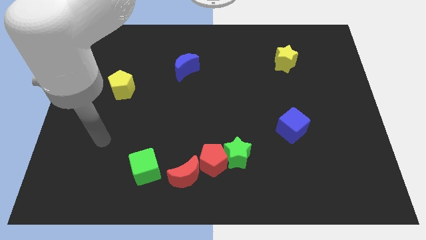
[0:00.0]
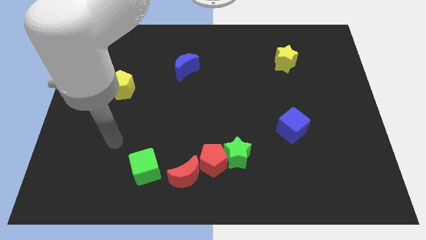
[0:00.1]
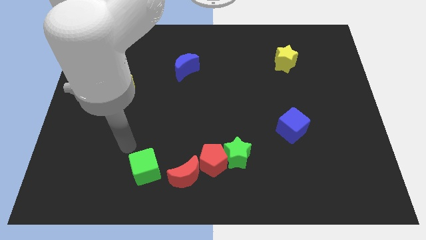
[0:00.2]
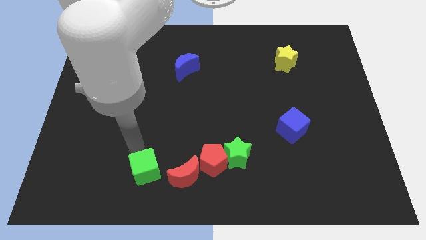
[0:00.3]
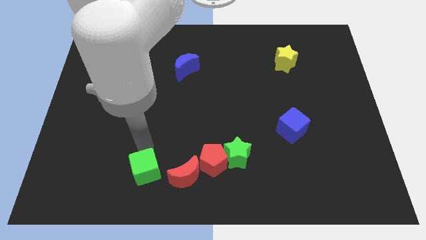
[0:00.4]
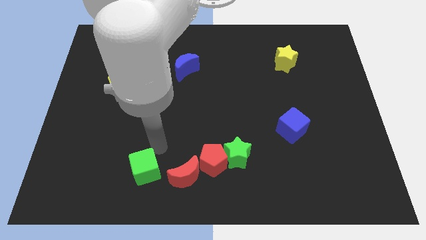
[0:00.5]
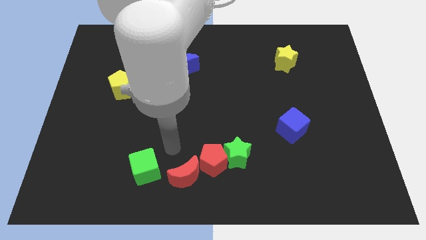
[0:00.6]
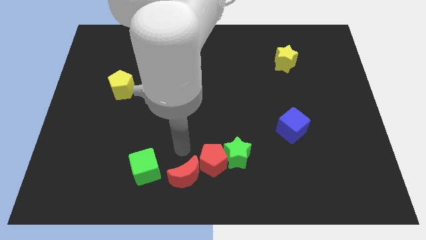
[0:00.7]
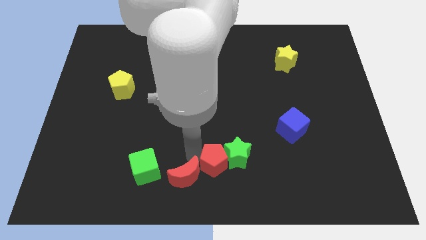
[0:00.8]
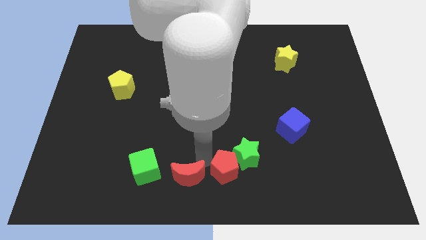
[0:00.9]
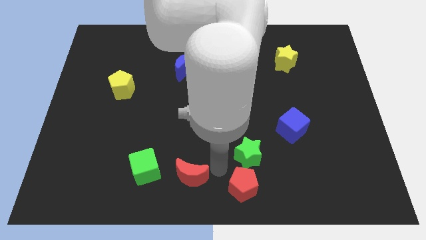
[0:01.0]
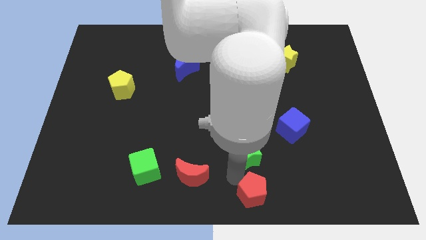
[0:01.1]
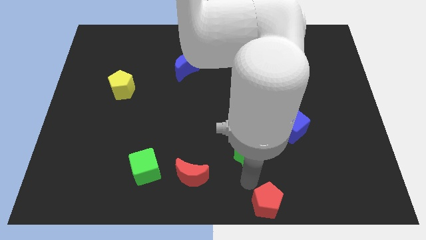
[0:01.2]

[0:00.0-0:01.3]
move the green star away from the red pentagon

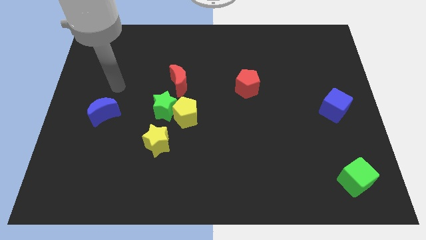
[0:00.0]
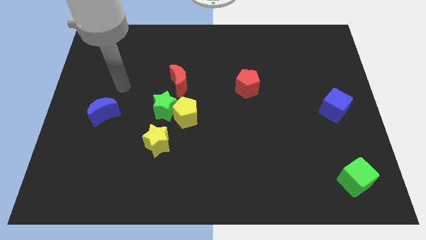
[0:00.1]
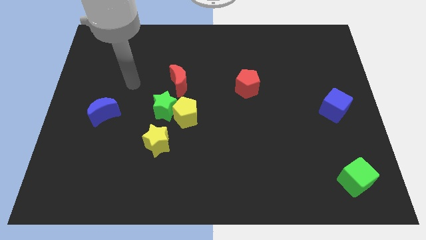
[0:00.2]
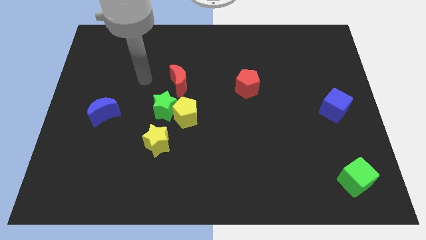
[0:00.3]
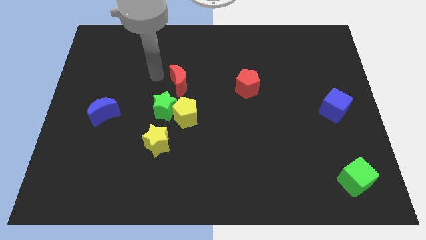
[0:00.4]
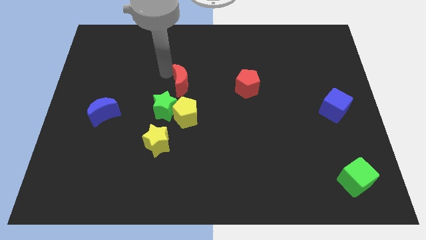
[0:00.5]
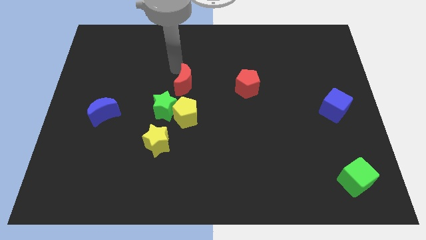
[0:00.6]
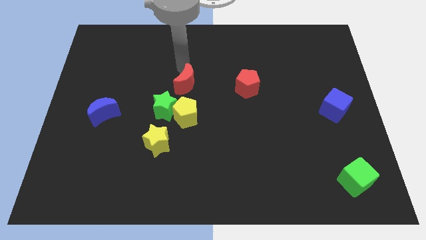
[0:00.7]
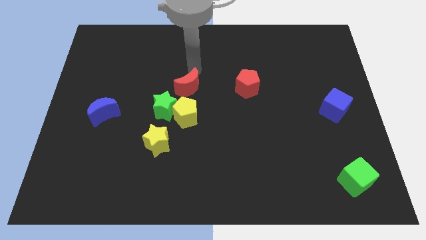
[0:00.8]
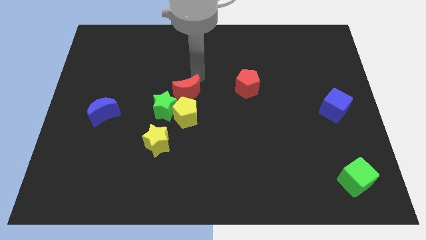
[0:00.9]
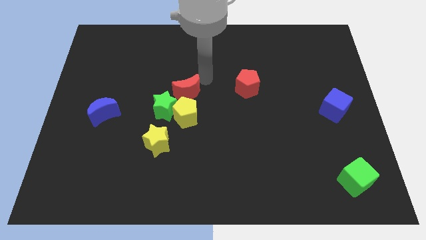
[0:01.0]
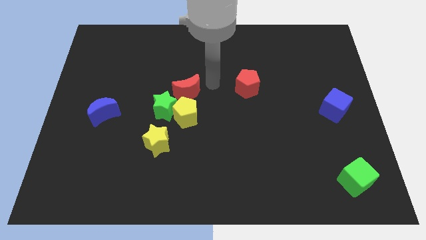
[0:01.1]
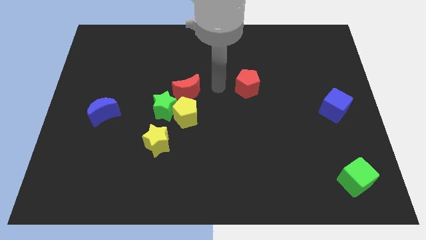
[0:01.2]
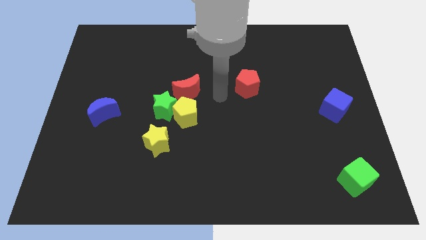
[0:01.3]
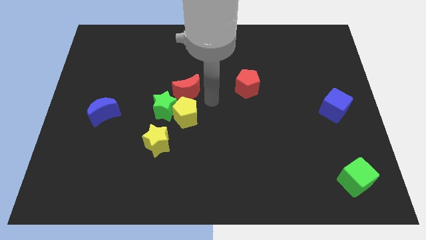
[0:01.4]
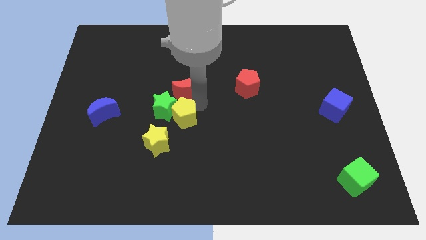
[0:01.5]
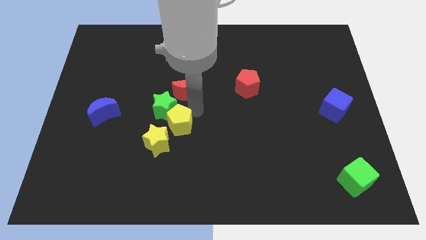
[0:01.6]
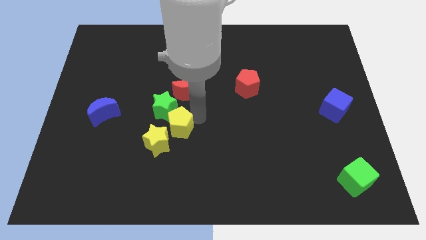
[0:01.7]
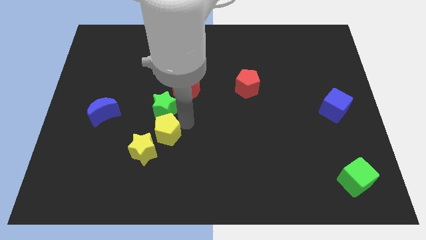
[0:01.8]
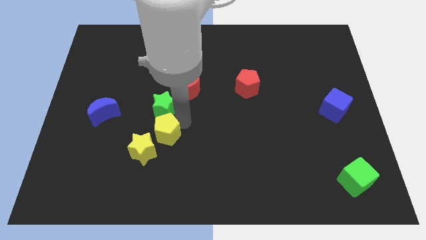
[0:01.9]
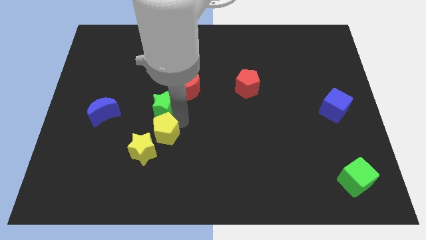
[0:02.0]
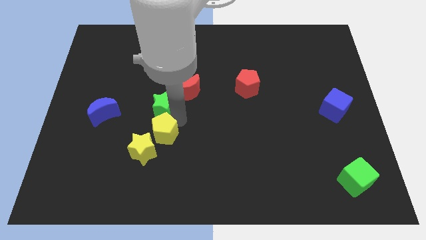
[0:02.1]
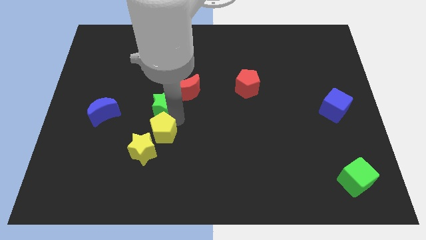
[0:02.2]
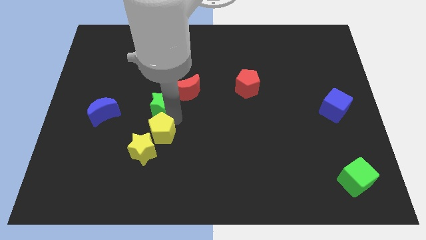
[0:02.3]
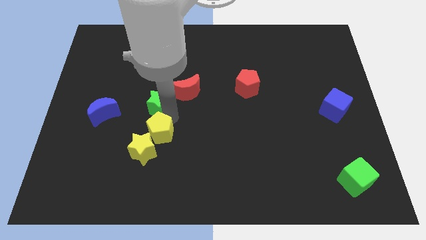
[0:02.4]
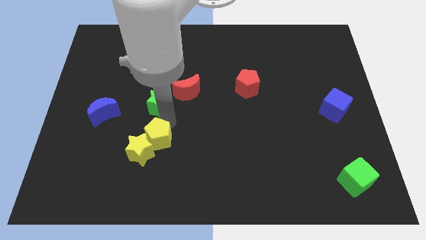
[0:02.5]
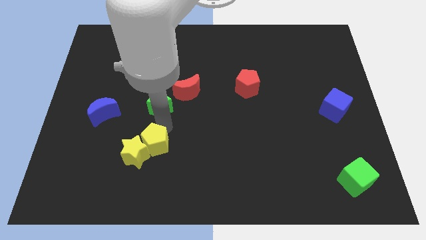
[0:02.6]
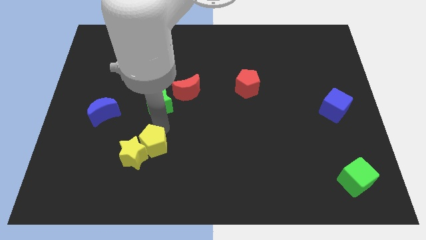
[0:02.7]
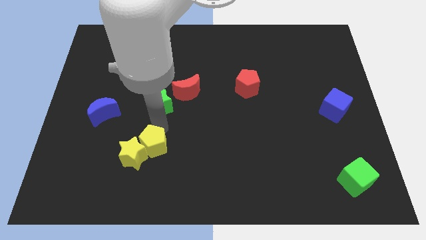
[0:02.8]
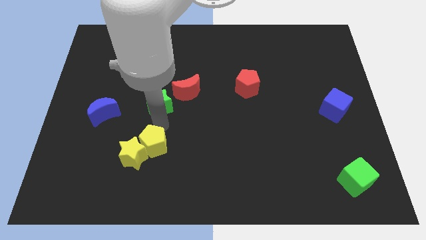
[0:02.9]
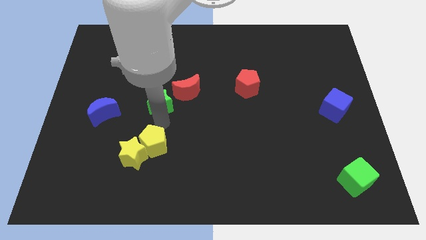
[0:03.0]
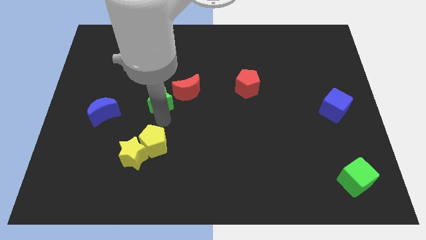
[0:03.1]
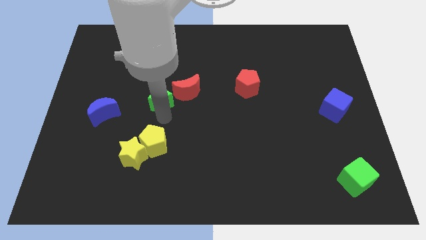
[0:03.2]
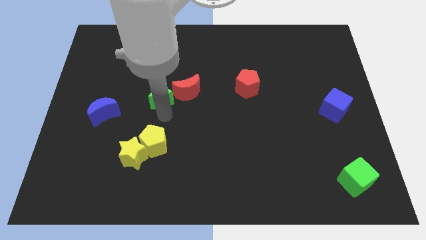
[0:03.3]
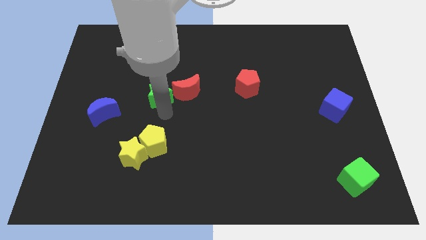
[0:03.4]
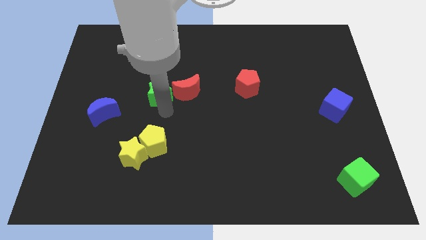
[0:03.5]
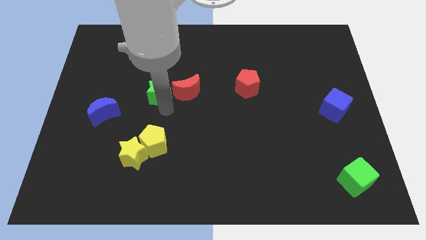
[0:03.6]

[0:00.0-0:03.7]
move the green star away from the yellow pentagon, red moon, and yellow star

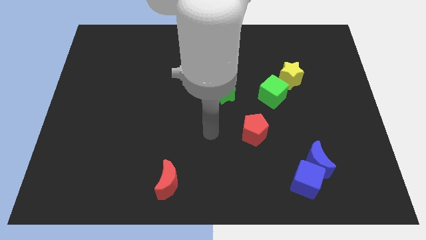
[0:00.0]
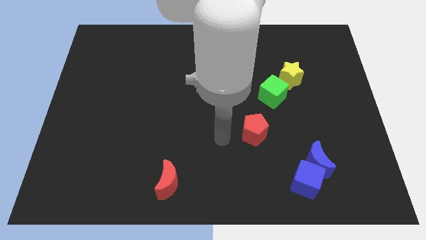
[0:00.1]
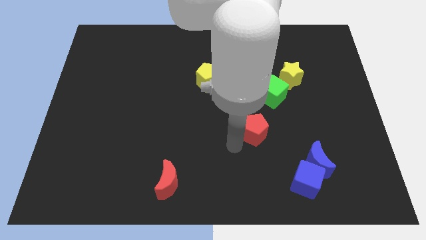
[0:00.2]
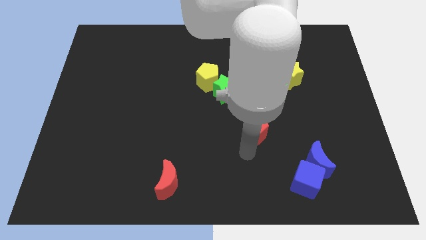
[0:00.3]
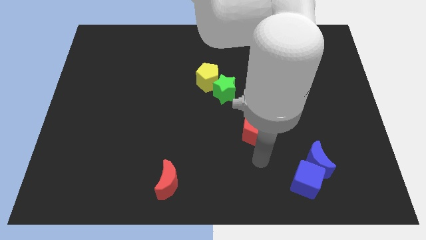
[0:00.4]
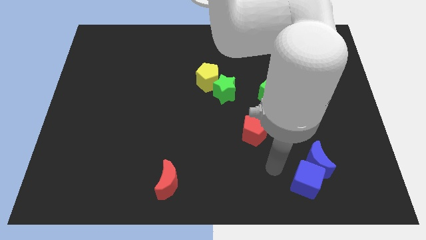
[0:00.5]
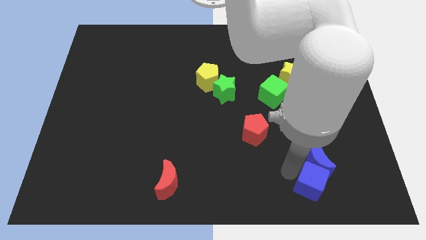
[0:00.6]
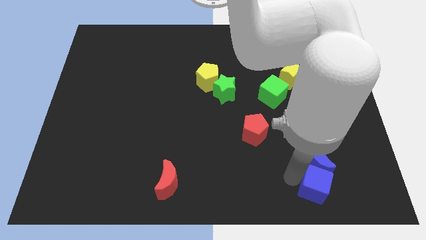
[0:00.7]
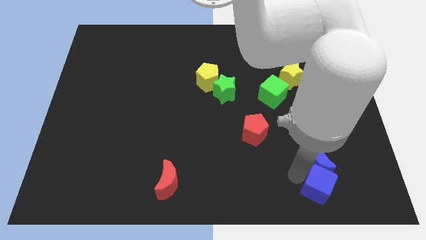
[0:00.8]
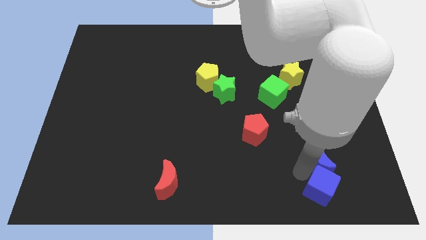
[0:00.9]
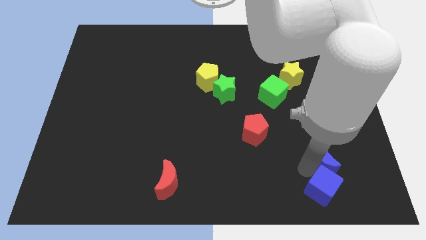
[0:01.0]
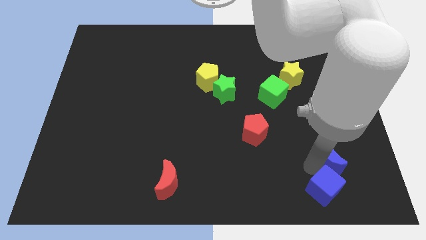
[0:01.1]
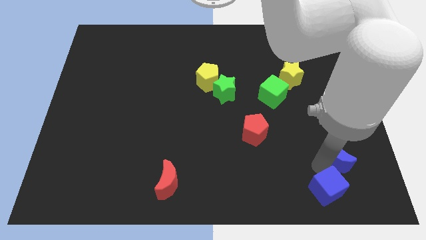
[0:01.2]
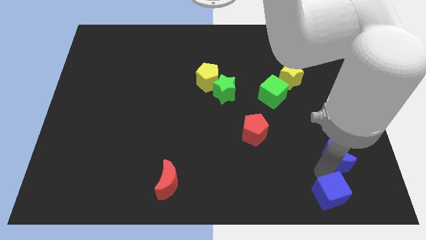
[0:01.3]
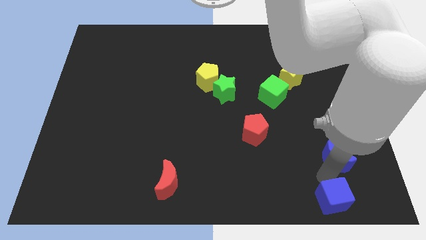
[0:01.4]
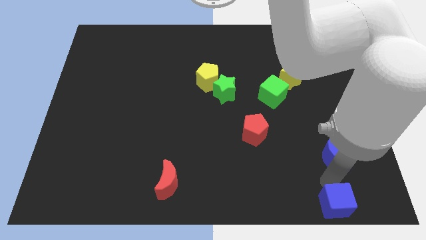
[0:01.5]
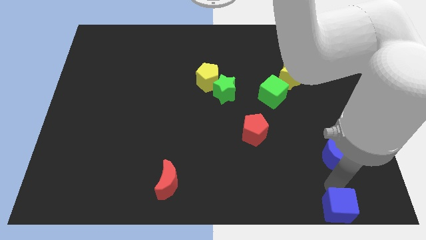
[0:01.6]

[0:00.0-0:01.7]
separate the blue moon from the blue cube

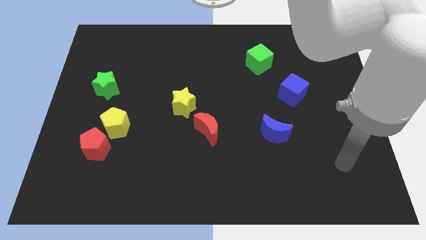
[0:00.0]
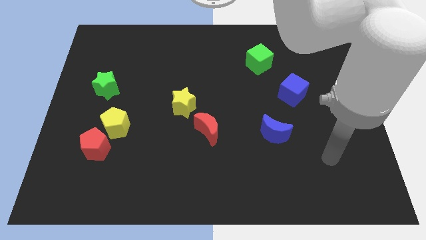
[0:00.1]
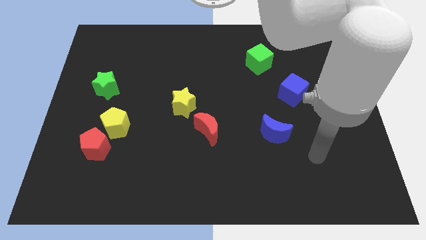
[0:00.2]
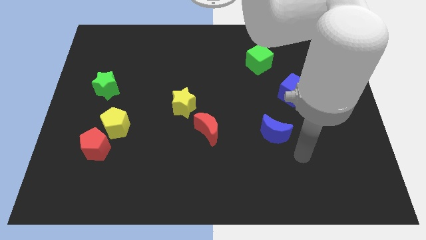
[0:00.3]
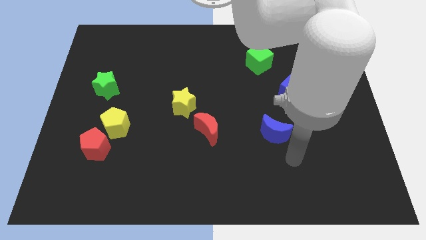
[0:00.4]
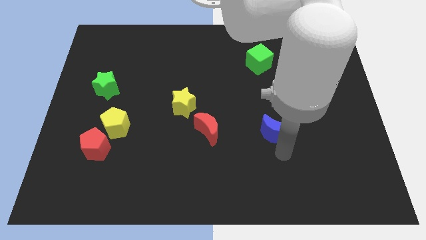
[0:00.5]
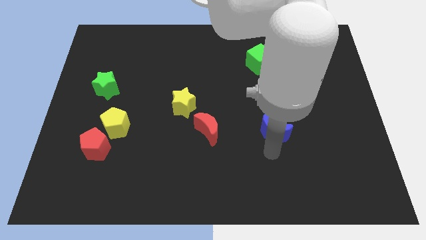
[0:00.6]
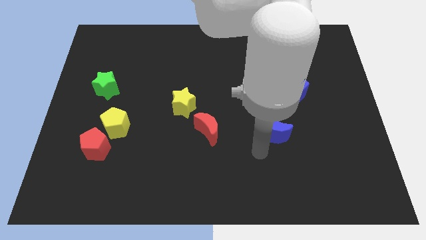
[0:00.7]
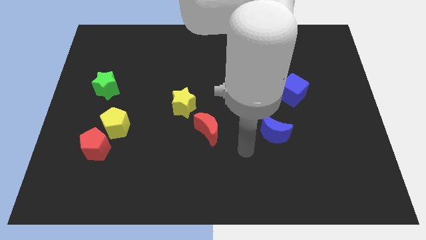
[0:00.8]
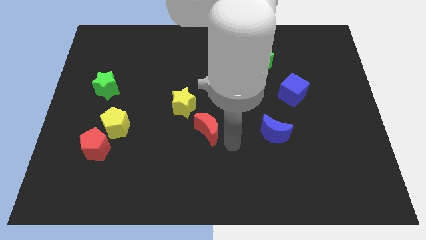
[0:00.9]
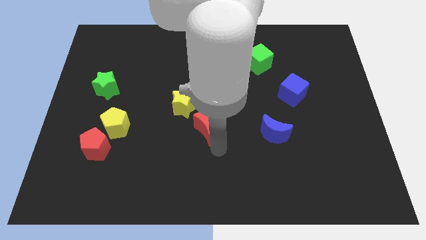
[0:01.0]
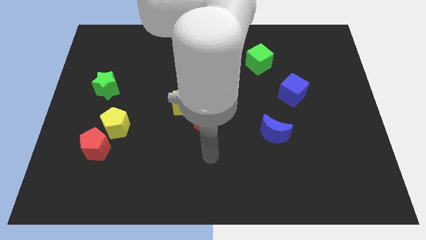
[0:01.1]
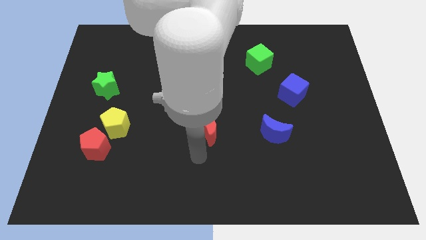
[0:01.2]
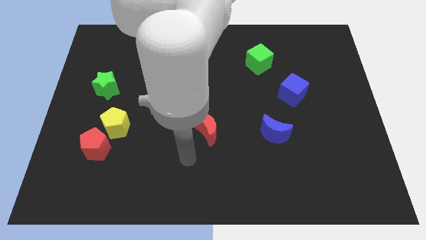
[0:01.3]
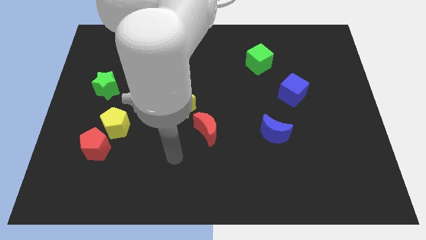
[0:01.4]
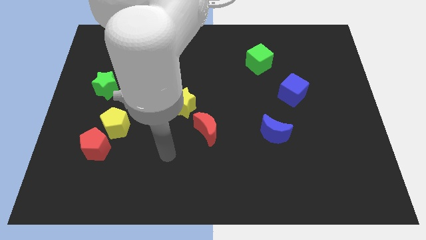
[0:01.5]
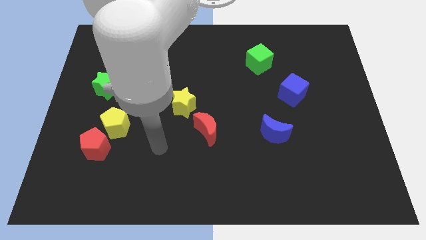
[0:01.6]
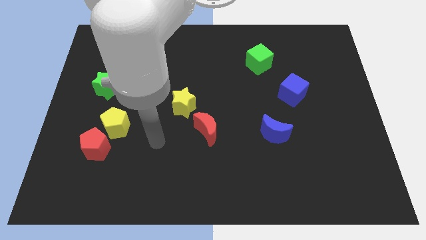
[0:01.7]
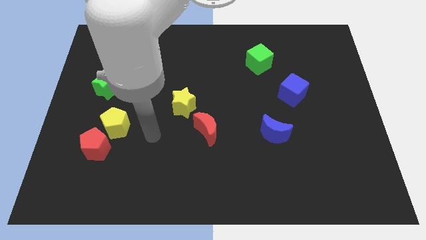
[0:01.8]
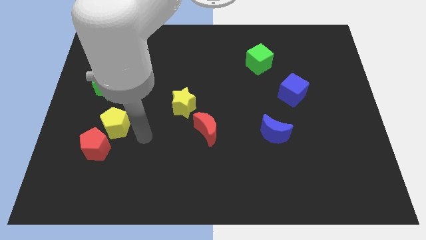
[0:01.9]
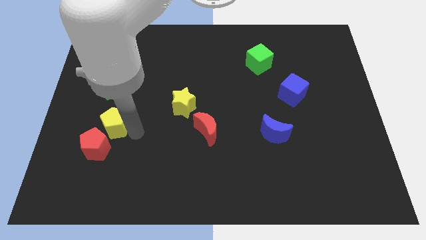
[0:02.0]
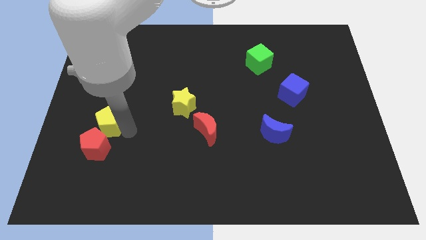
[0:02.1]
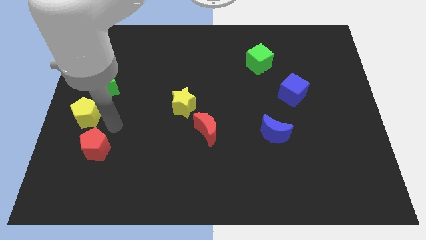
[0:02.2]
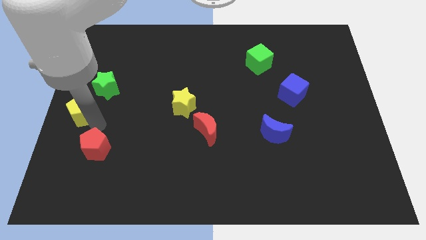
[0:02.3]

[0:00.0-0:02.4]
move the red pentagon away from the yellow pentagon

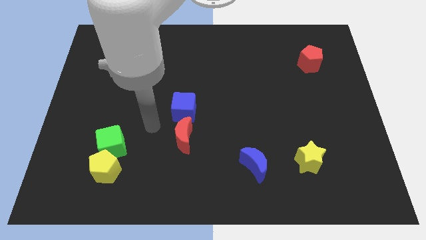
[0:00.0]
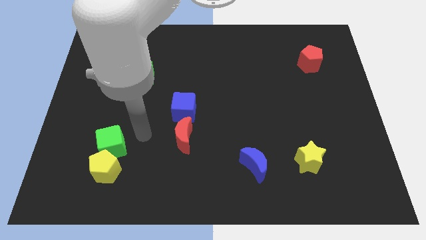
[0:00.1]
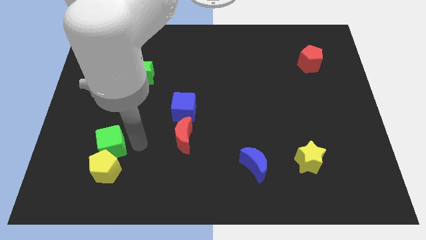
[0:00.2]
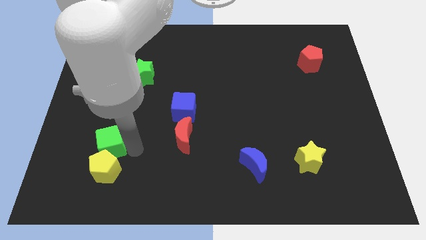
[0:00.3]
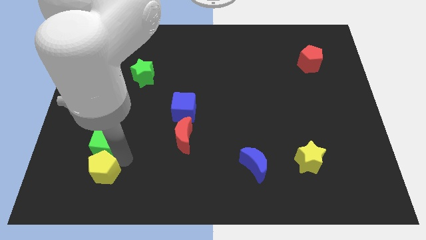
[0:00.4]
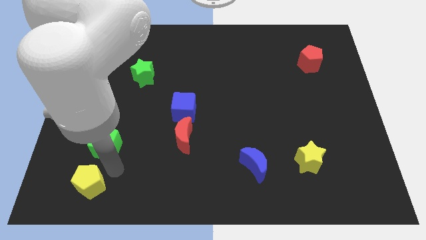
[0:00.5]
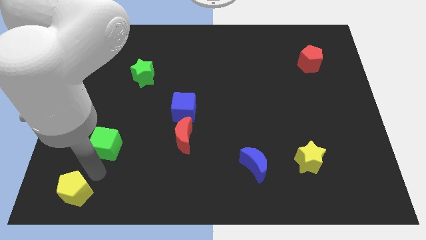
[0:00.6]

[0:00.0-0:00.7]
move the green cube away from the yellow pentagon
